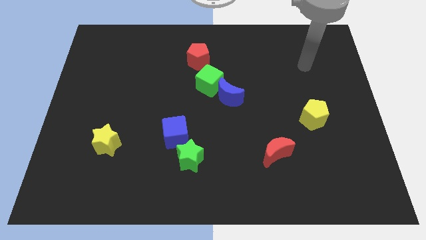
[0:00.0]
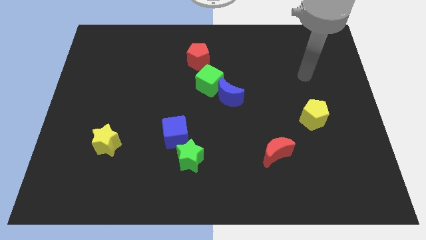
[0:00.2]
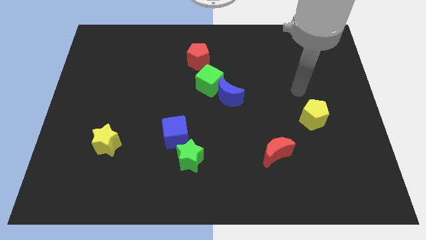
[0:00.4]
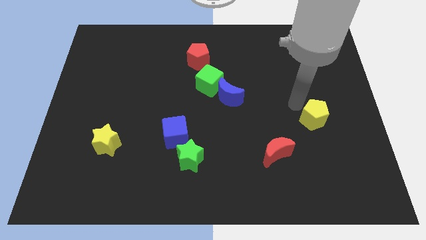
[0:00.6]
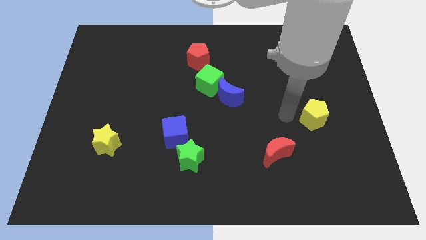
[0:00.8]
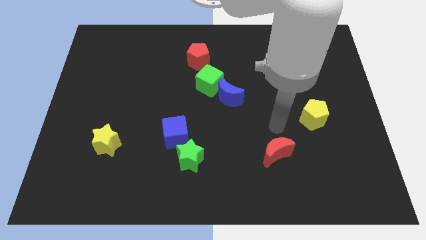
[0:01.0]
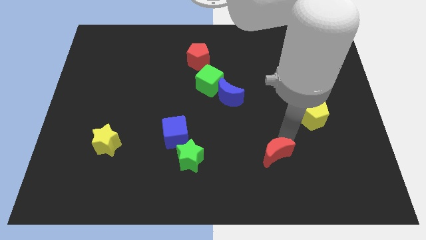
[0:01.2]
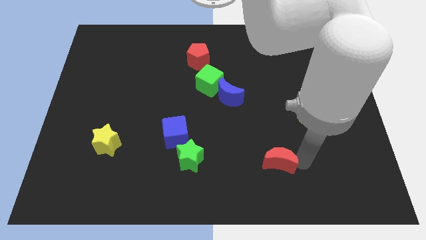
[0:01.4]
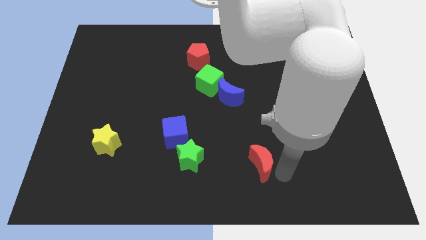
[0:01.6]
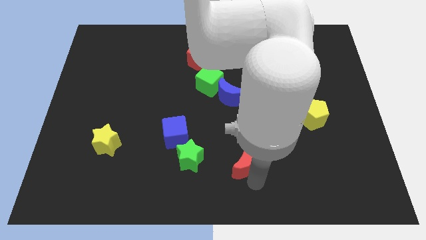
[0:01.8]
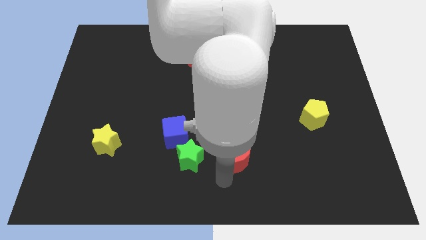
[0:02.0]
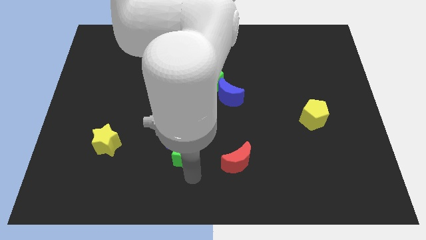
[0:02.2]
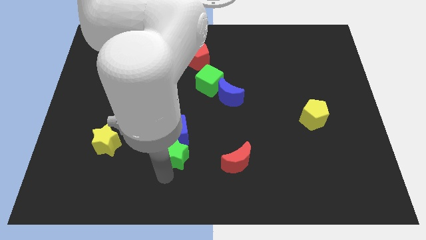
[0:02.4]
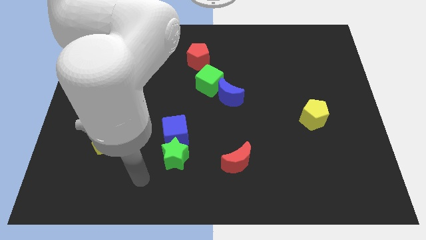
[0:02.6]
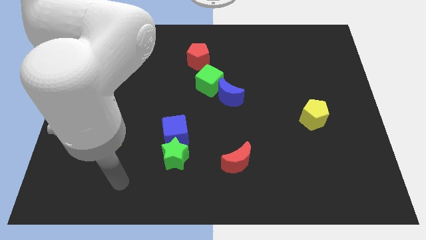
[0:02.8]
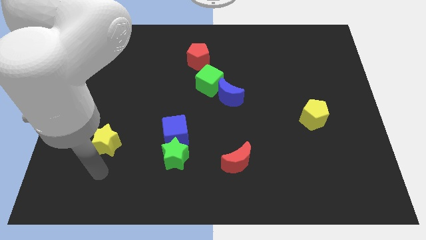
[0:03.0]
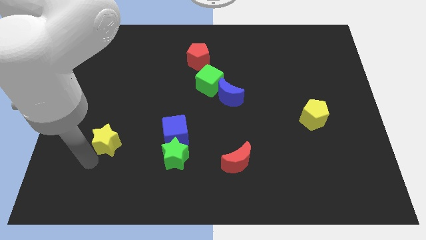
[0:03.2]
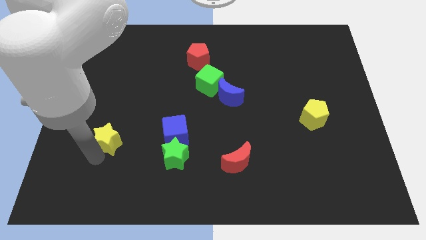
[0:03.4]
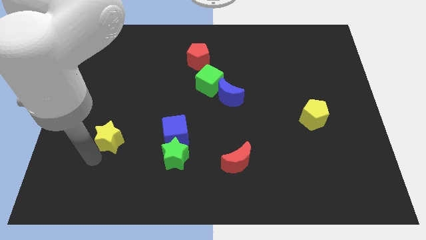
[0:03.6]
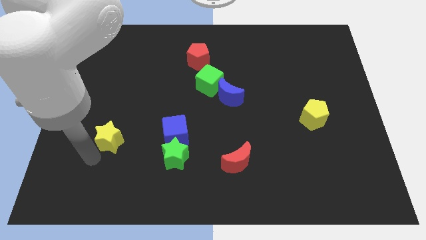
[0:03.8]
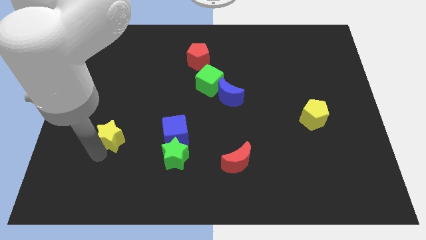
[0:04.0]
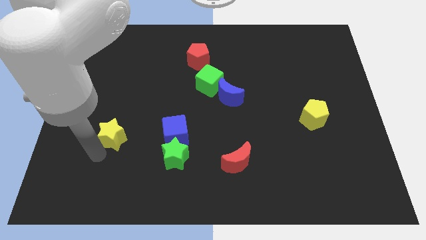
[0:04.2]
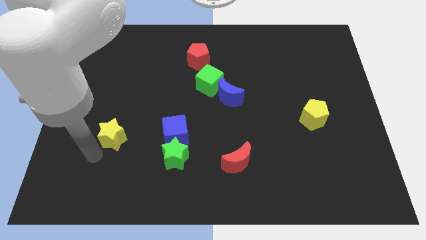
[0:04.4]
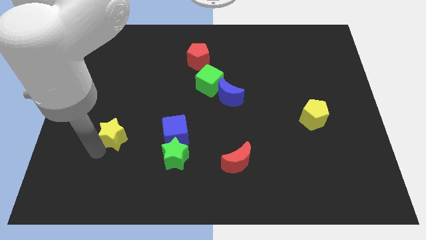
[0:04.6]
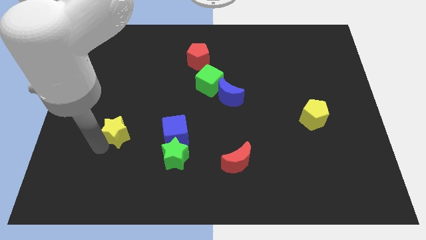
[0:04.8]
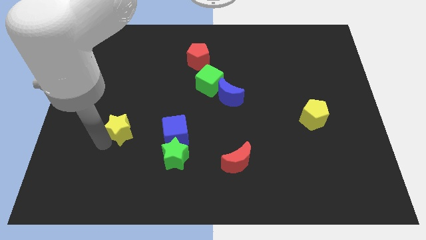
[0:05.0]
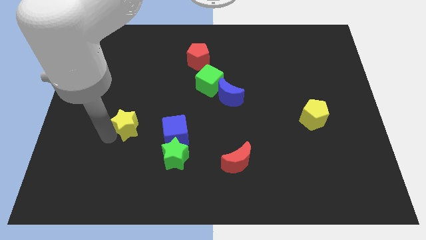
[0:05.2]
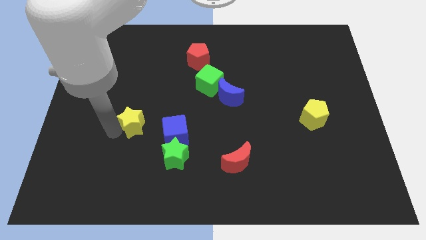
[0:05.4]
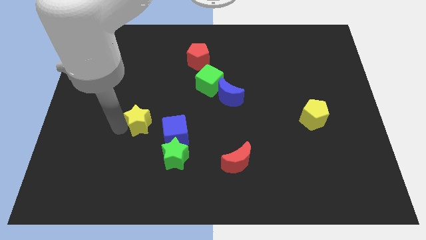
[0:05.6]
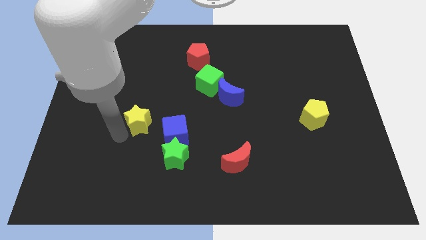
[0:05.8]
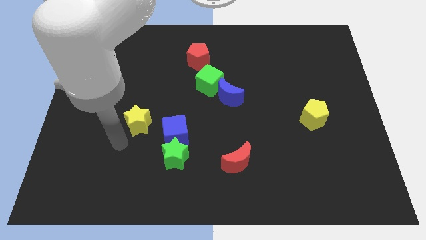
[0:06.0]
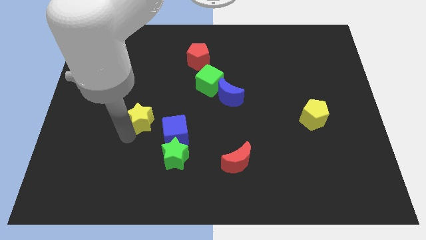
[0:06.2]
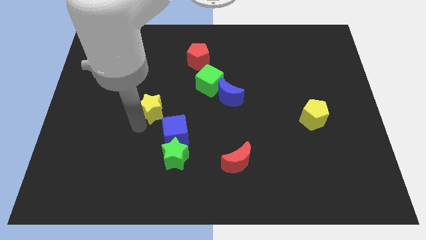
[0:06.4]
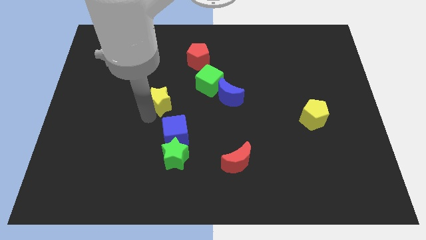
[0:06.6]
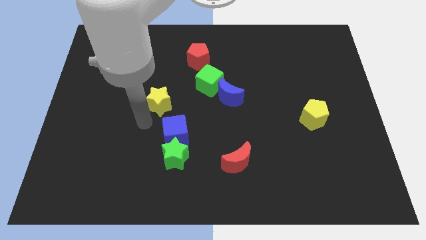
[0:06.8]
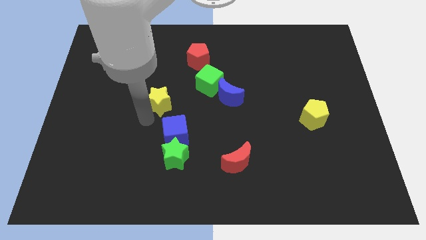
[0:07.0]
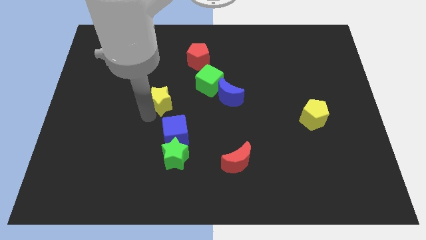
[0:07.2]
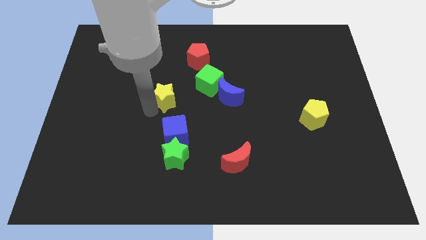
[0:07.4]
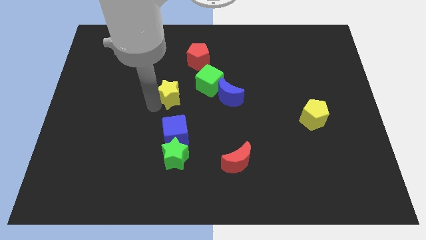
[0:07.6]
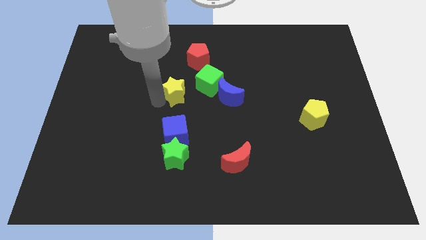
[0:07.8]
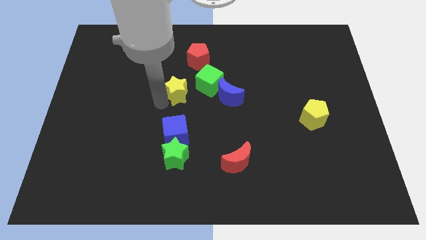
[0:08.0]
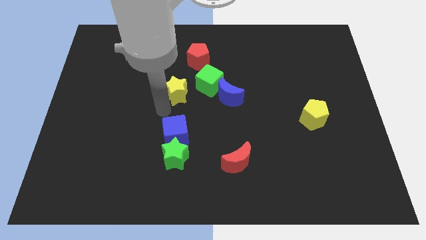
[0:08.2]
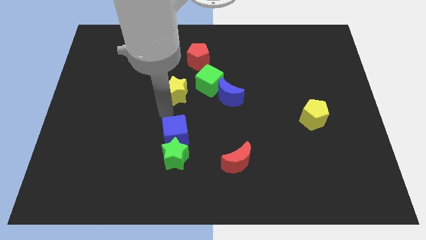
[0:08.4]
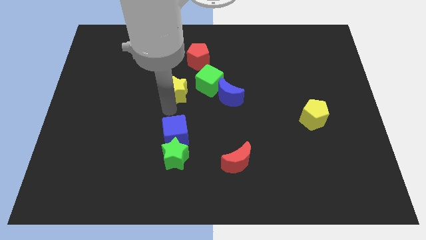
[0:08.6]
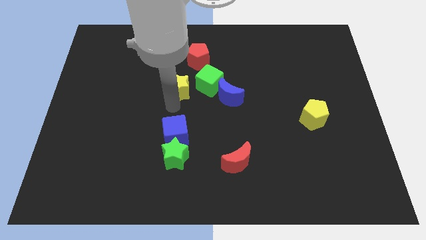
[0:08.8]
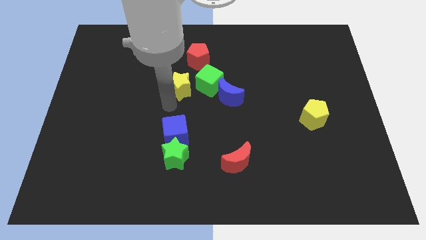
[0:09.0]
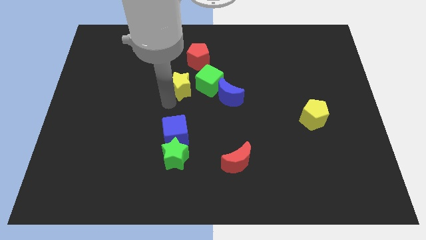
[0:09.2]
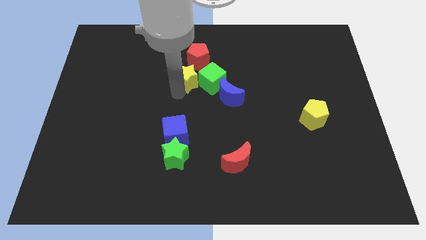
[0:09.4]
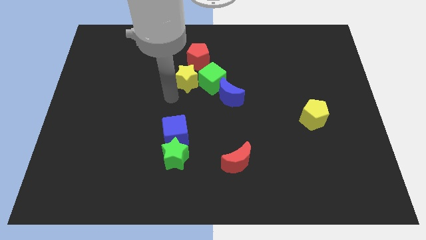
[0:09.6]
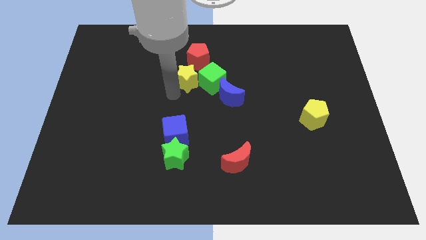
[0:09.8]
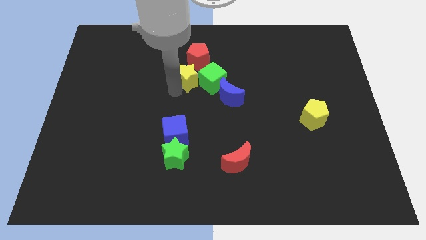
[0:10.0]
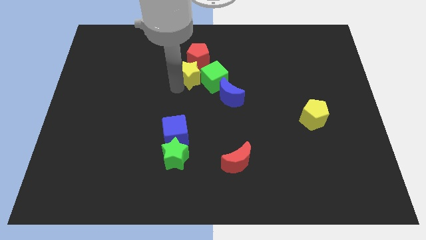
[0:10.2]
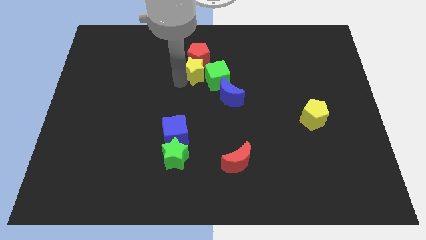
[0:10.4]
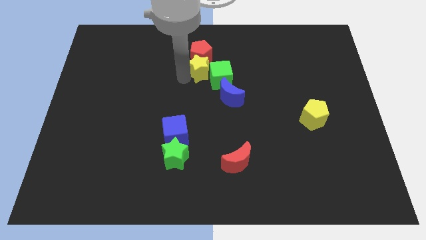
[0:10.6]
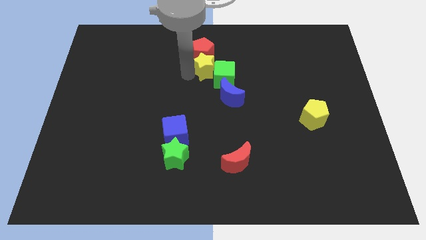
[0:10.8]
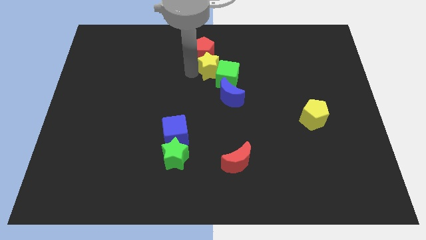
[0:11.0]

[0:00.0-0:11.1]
move the yellow star to the top side of the green cube

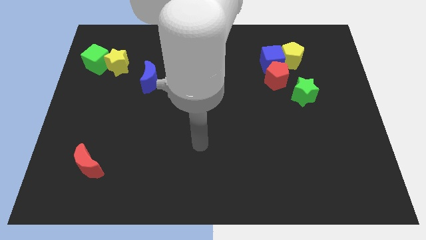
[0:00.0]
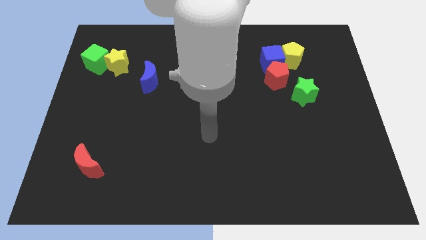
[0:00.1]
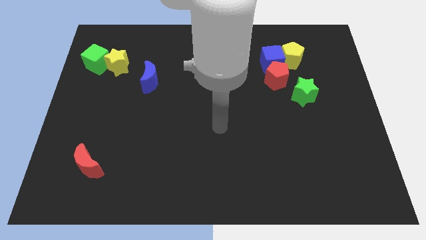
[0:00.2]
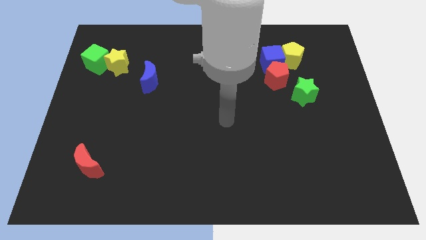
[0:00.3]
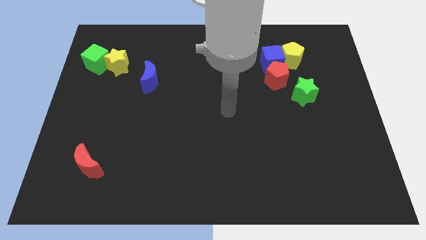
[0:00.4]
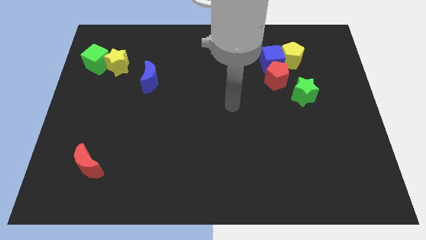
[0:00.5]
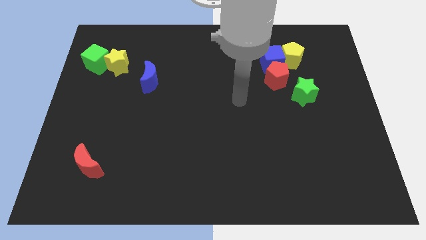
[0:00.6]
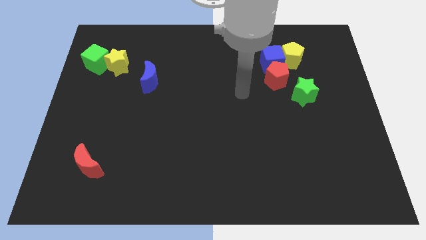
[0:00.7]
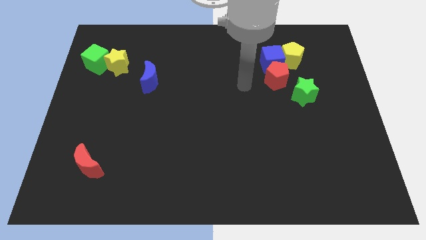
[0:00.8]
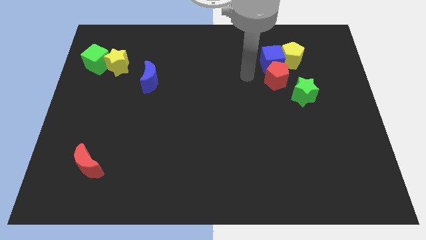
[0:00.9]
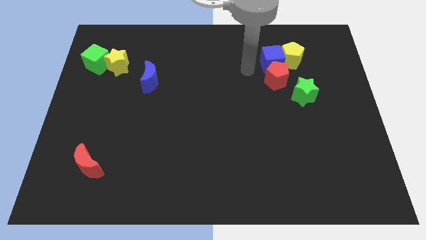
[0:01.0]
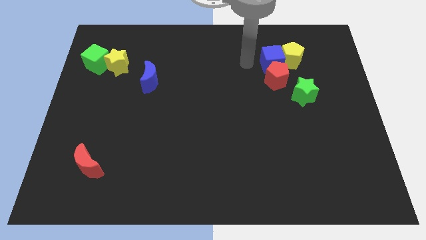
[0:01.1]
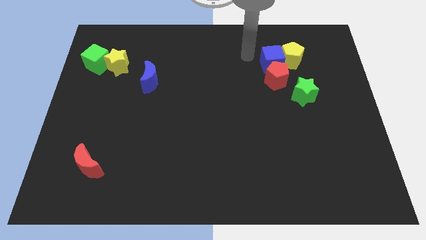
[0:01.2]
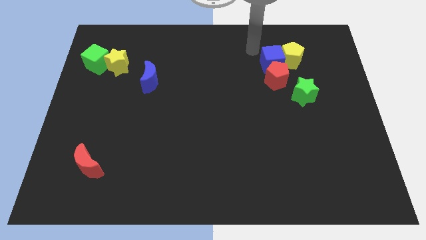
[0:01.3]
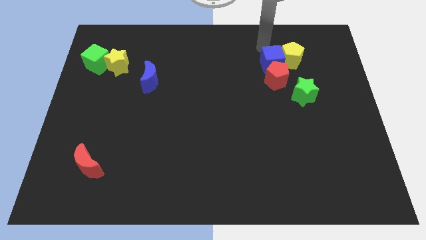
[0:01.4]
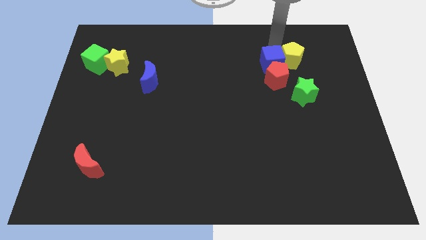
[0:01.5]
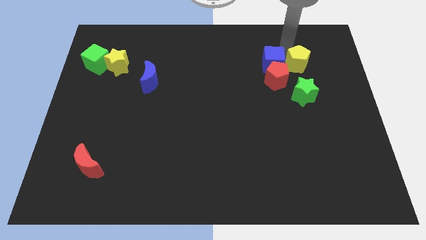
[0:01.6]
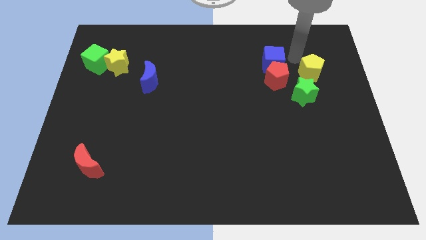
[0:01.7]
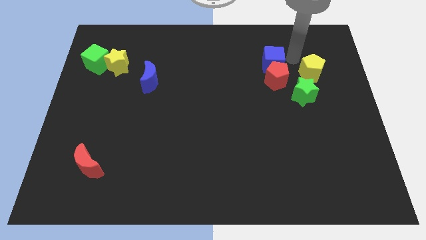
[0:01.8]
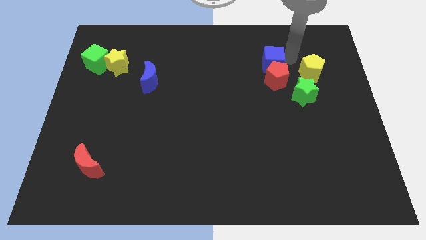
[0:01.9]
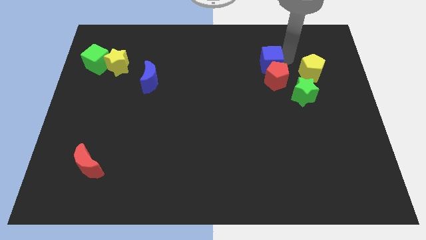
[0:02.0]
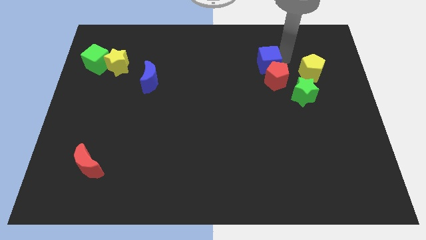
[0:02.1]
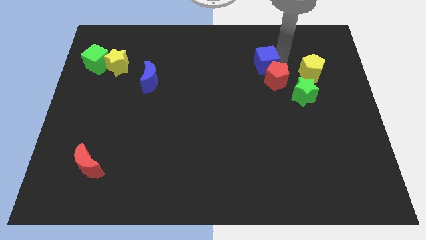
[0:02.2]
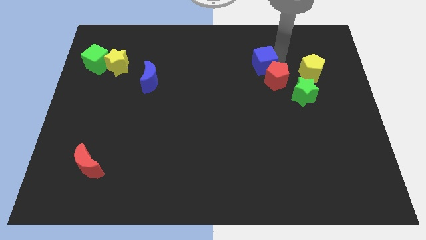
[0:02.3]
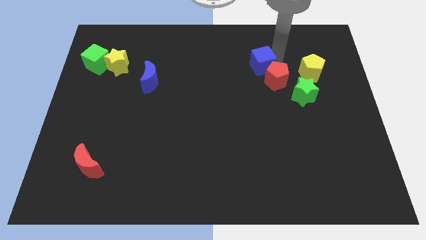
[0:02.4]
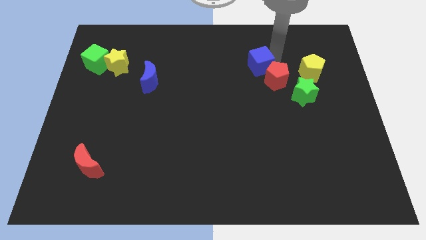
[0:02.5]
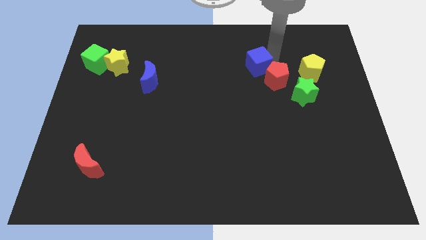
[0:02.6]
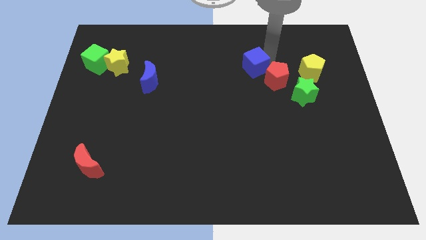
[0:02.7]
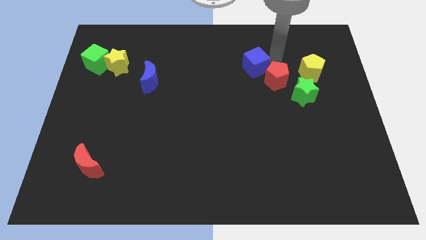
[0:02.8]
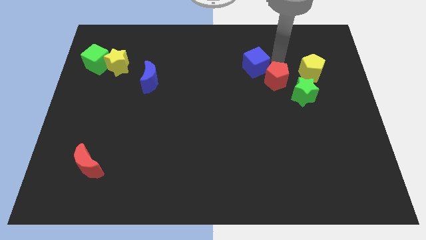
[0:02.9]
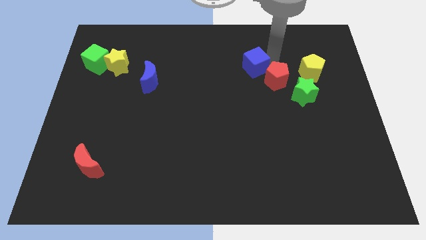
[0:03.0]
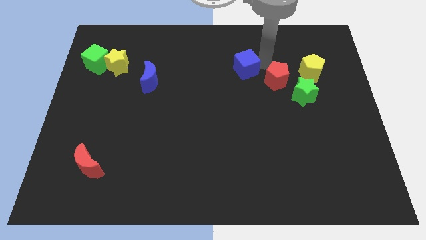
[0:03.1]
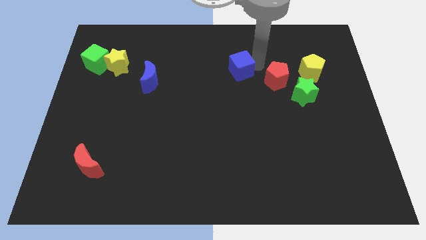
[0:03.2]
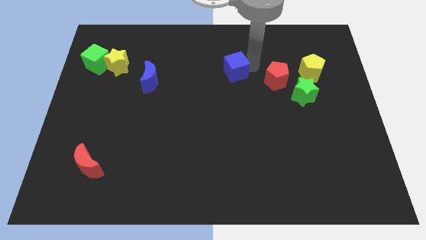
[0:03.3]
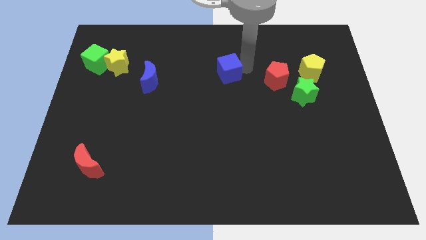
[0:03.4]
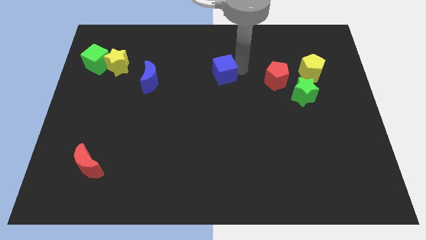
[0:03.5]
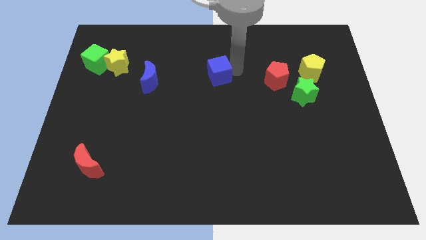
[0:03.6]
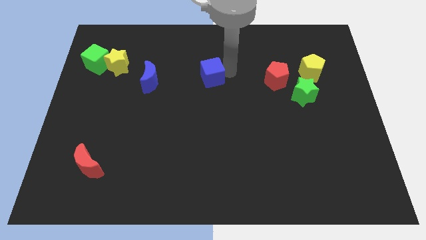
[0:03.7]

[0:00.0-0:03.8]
slide the blue cube just right of the blue moon
